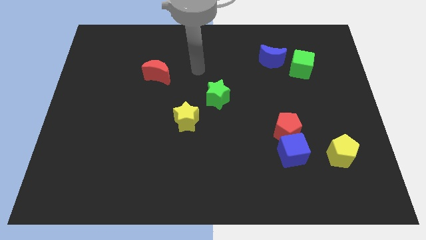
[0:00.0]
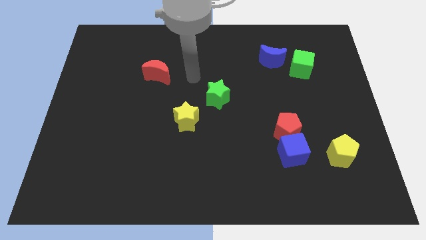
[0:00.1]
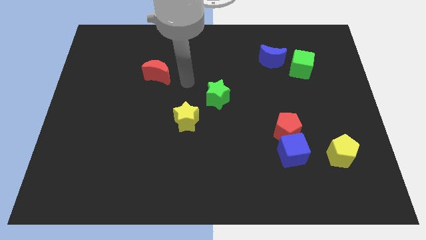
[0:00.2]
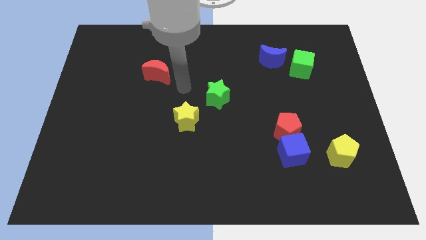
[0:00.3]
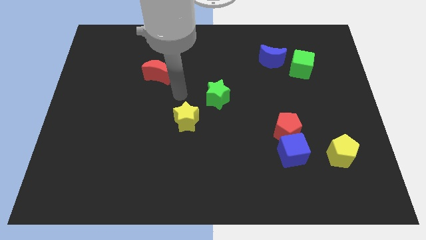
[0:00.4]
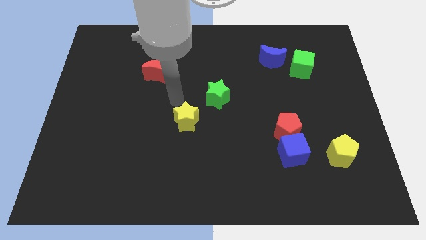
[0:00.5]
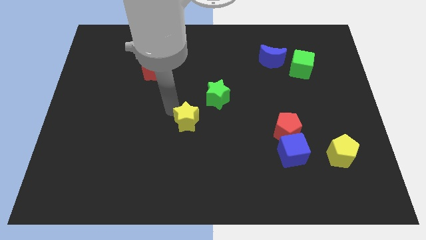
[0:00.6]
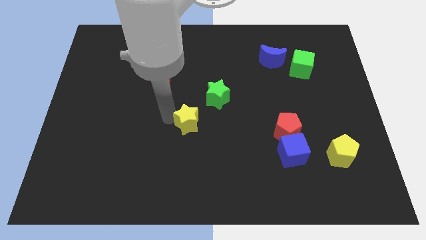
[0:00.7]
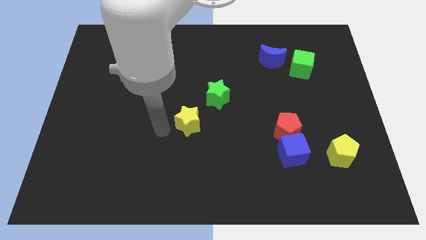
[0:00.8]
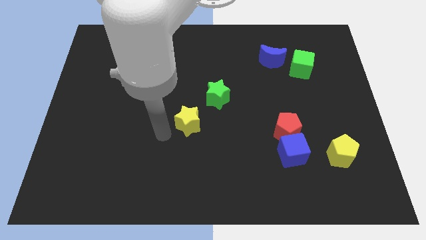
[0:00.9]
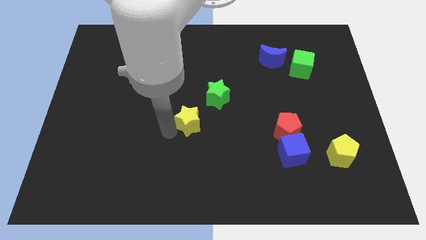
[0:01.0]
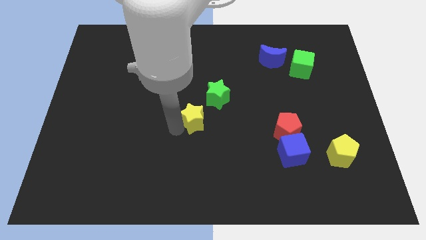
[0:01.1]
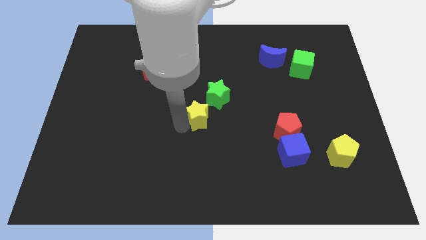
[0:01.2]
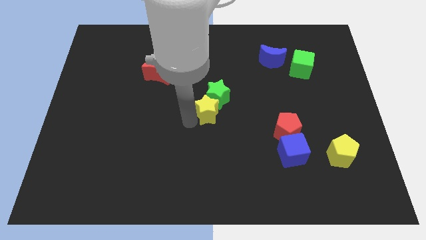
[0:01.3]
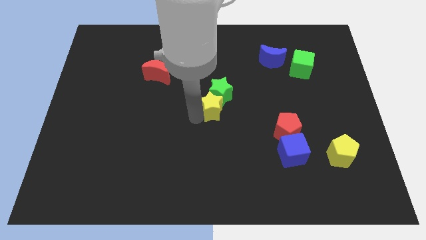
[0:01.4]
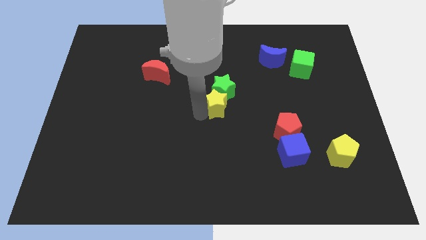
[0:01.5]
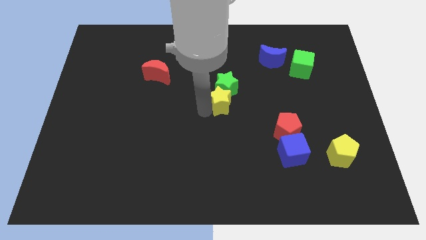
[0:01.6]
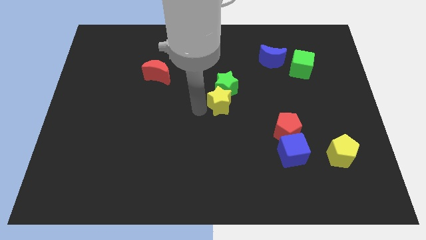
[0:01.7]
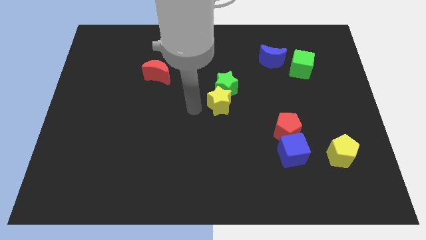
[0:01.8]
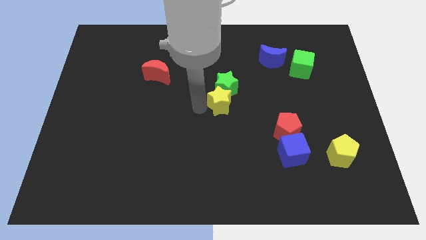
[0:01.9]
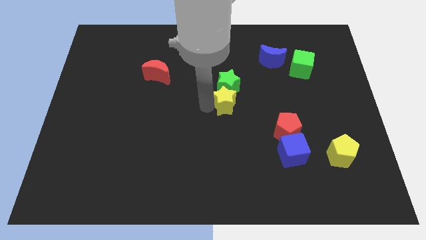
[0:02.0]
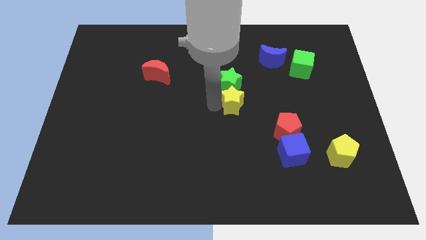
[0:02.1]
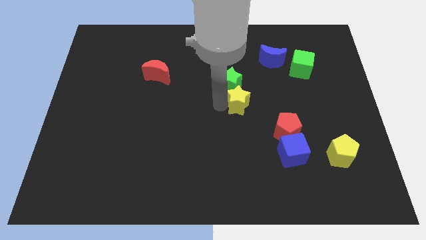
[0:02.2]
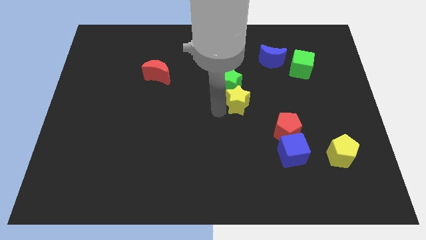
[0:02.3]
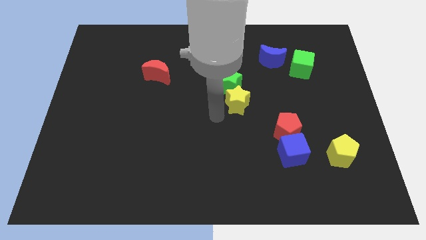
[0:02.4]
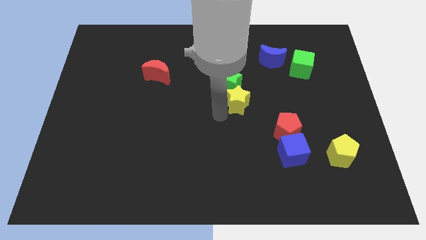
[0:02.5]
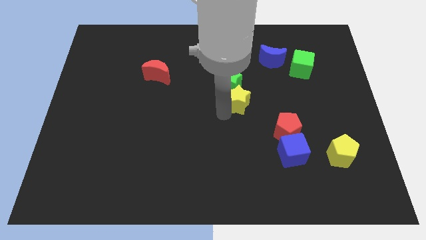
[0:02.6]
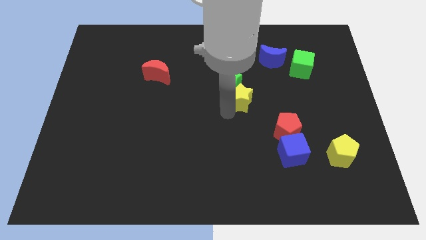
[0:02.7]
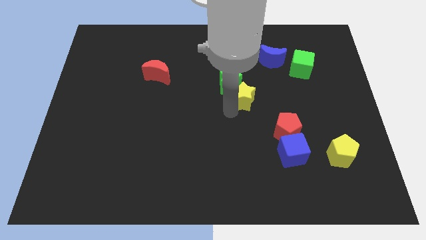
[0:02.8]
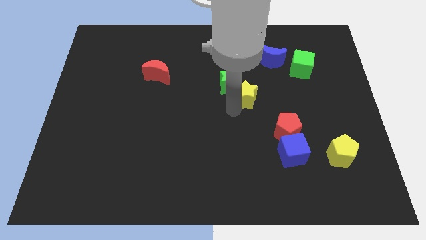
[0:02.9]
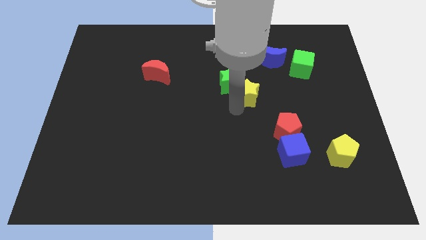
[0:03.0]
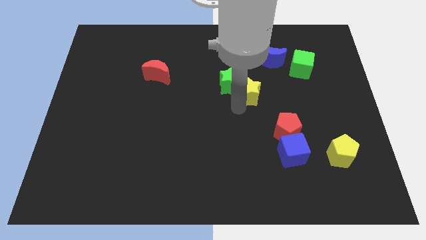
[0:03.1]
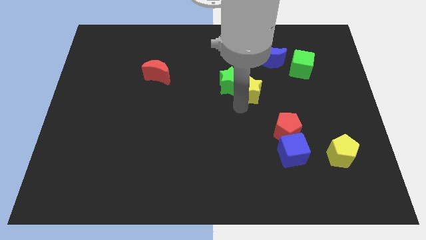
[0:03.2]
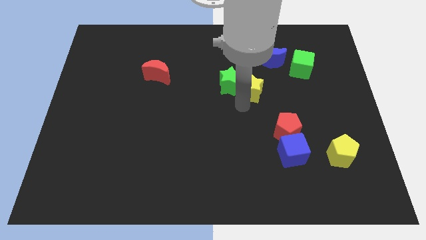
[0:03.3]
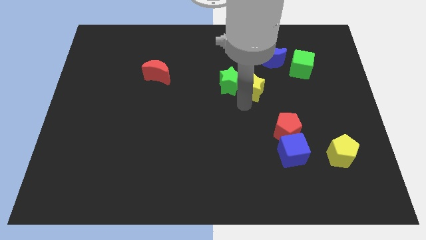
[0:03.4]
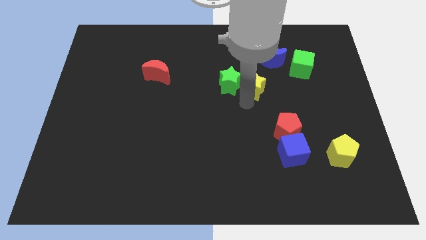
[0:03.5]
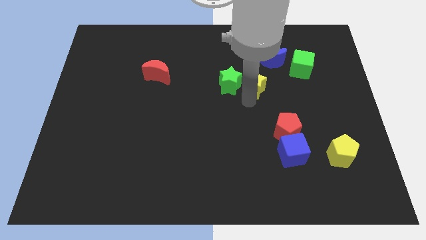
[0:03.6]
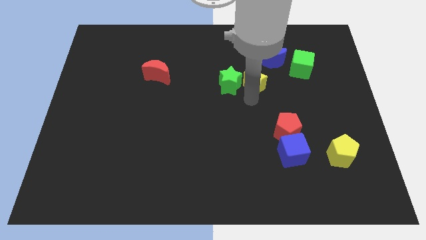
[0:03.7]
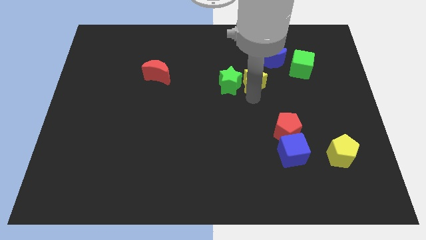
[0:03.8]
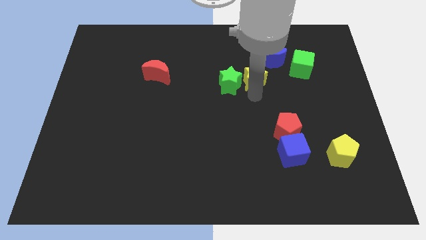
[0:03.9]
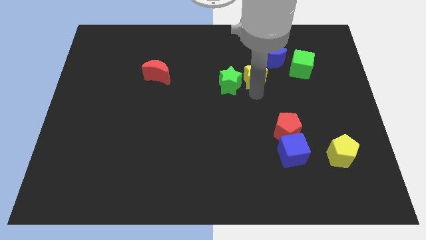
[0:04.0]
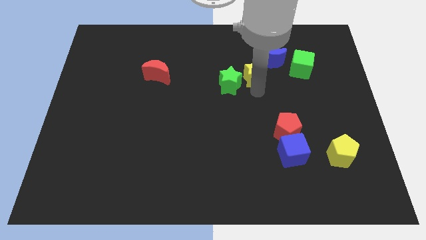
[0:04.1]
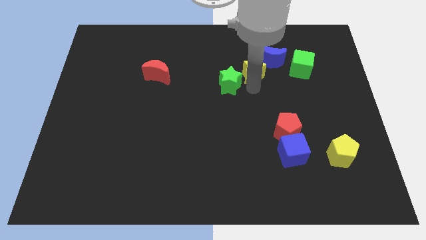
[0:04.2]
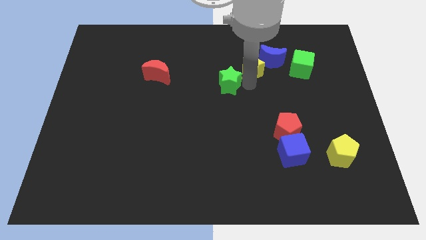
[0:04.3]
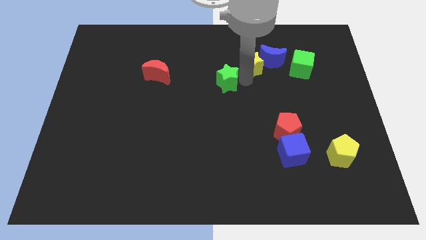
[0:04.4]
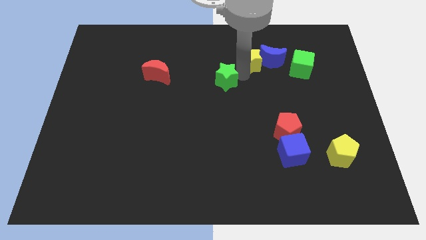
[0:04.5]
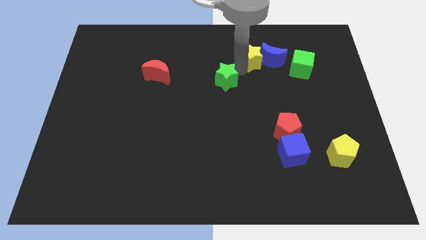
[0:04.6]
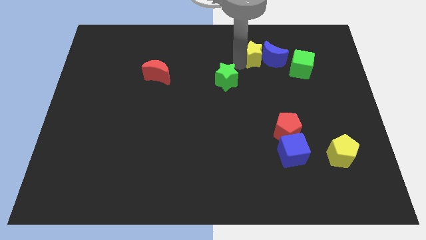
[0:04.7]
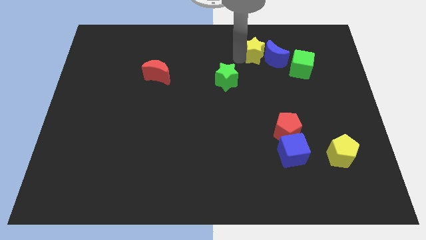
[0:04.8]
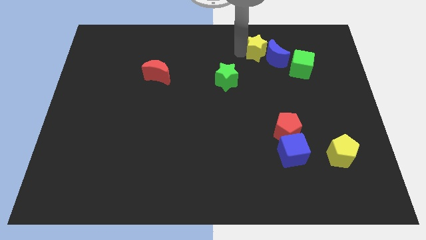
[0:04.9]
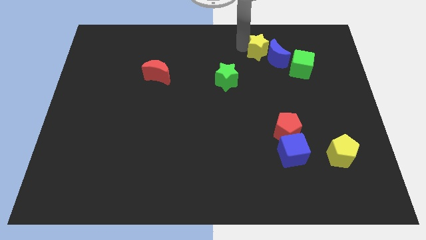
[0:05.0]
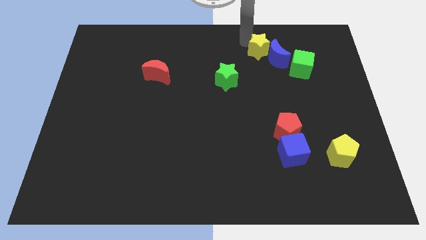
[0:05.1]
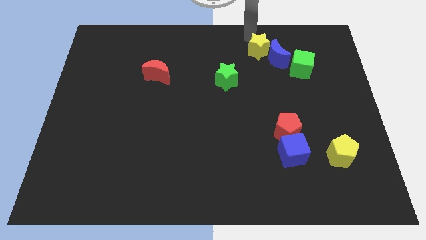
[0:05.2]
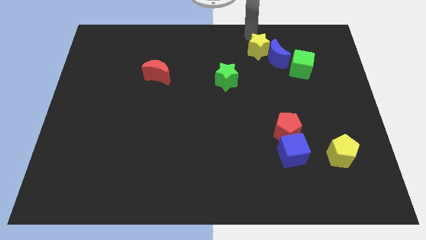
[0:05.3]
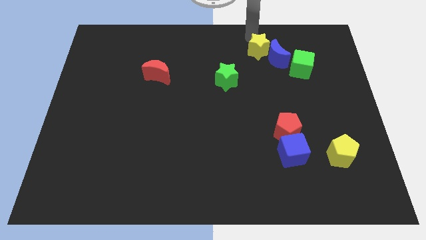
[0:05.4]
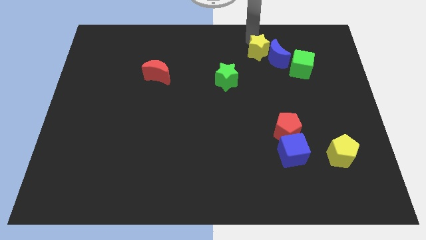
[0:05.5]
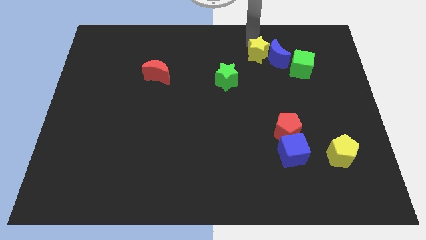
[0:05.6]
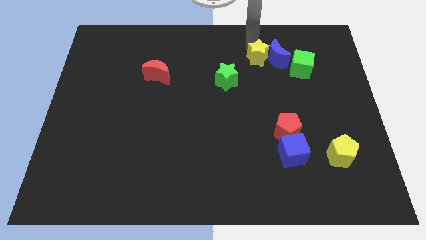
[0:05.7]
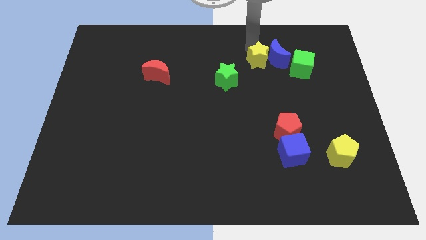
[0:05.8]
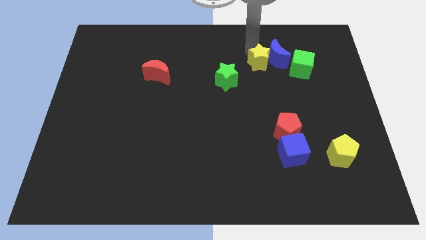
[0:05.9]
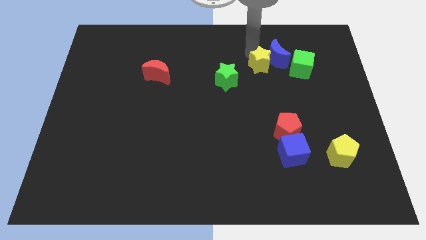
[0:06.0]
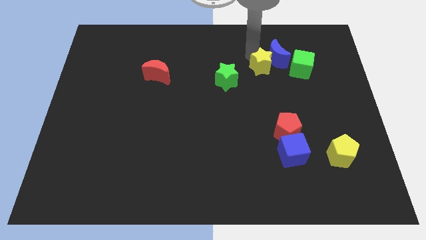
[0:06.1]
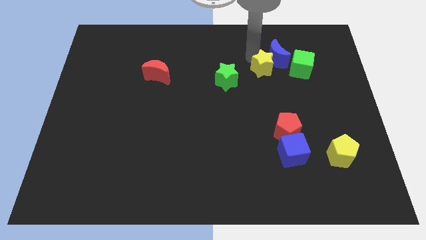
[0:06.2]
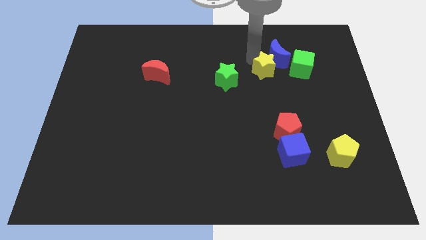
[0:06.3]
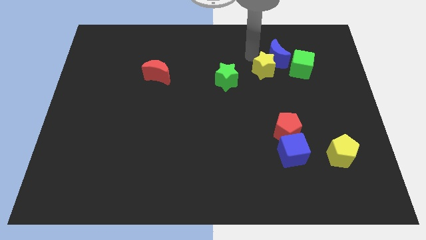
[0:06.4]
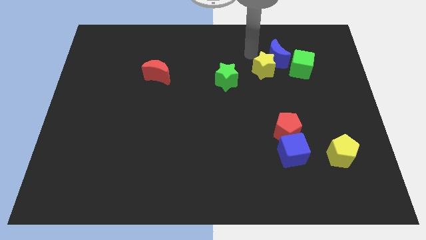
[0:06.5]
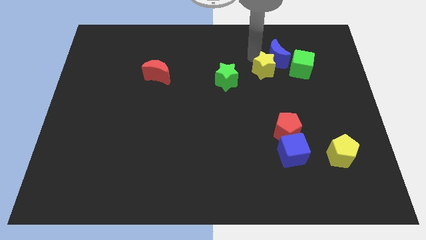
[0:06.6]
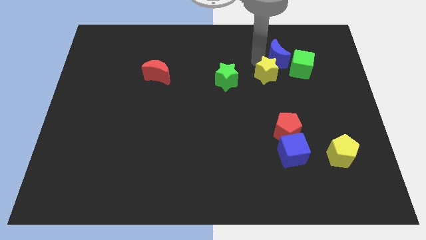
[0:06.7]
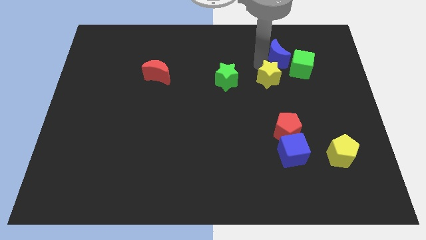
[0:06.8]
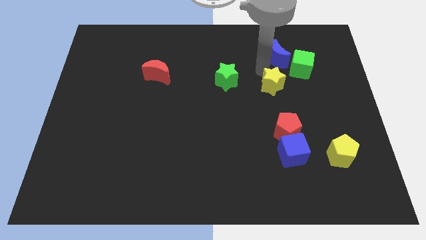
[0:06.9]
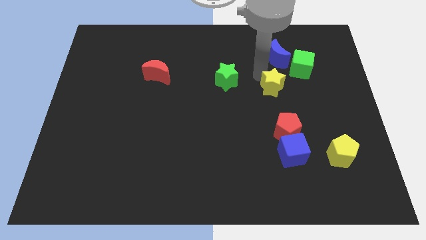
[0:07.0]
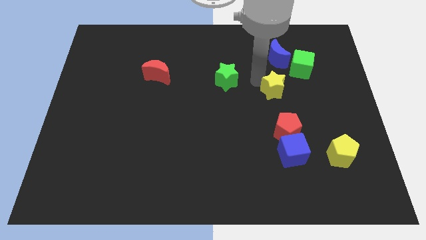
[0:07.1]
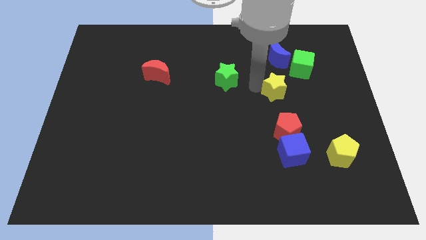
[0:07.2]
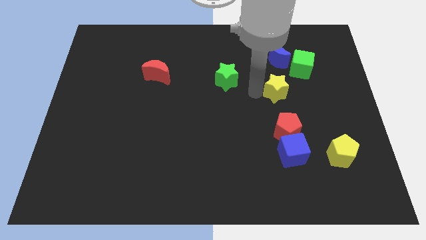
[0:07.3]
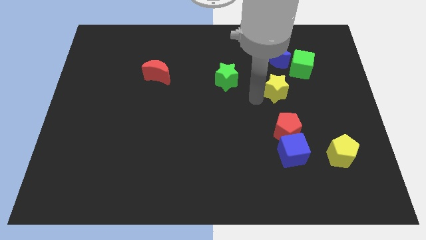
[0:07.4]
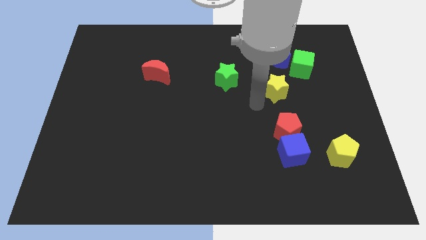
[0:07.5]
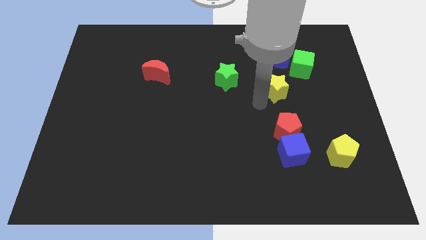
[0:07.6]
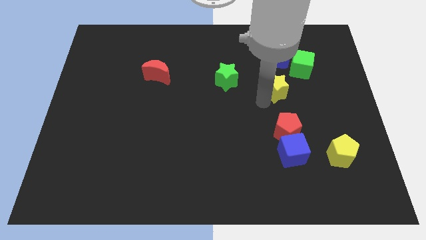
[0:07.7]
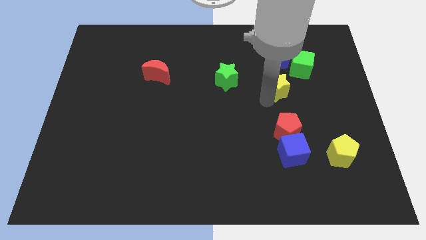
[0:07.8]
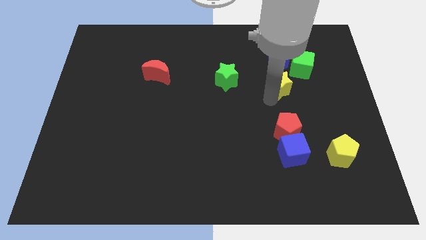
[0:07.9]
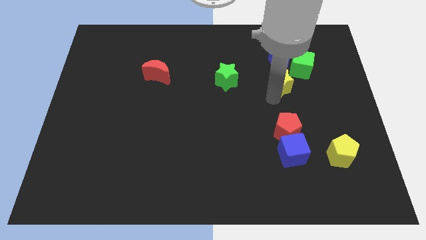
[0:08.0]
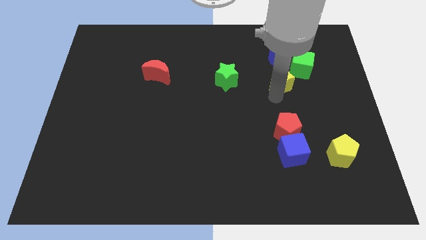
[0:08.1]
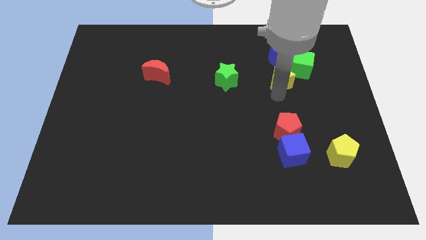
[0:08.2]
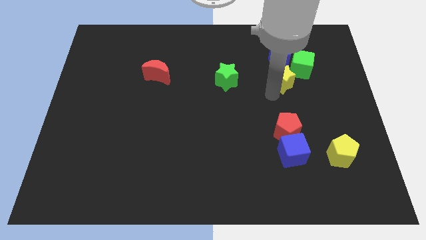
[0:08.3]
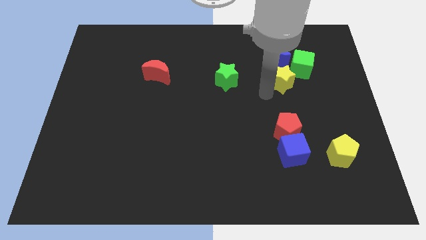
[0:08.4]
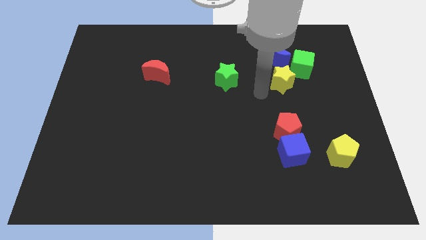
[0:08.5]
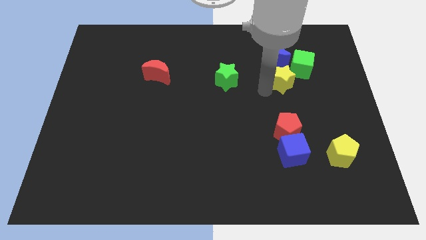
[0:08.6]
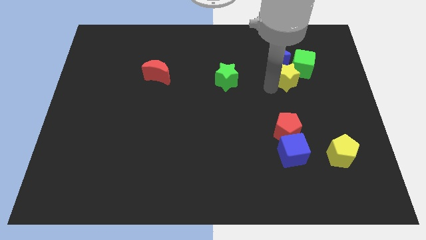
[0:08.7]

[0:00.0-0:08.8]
slide the yellow star to the bottom right side of the blue moon
